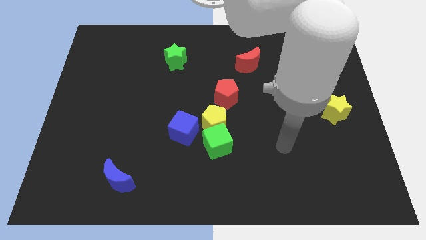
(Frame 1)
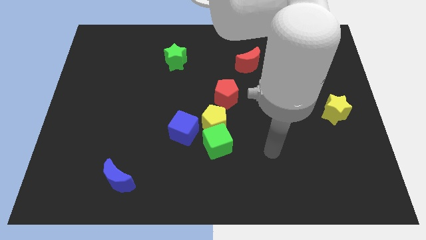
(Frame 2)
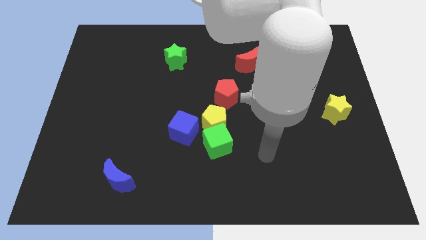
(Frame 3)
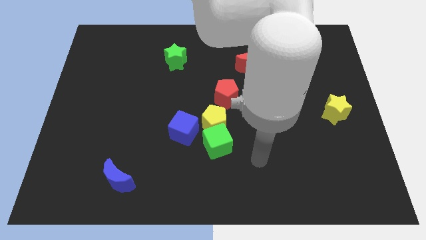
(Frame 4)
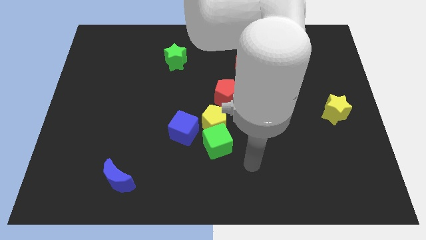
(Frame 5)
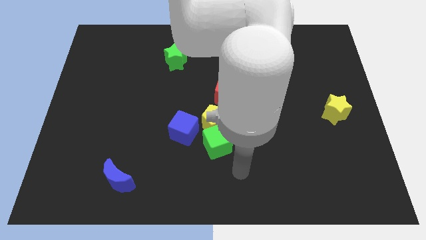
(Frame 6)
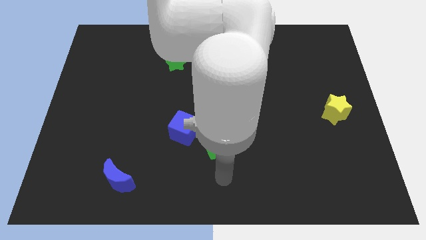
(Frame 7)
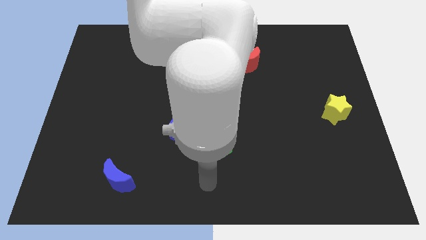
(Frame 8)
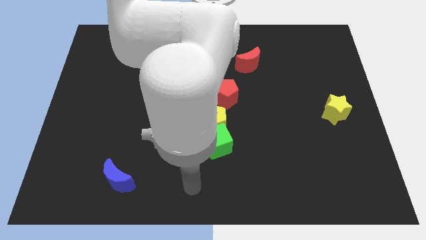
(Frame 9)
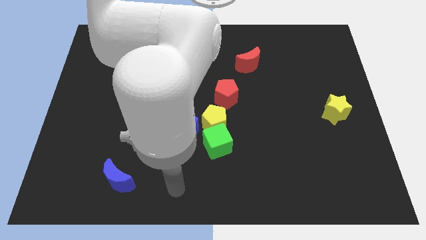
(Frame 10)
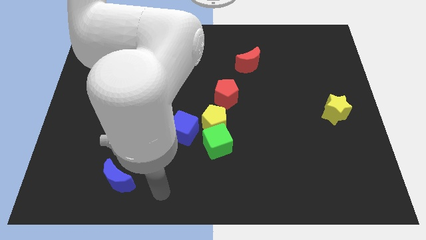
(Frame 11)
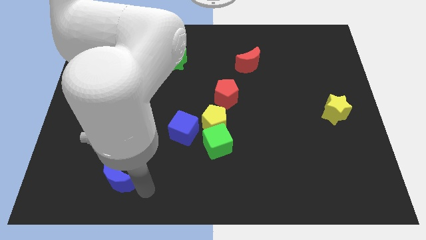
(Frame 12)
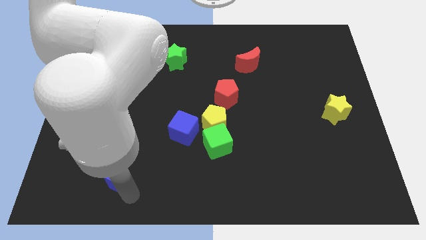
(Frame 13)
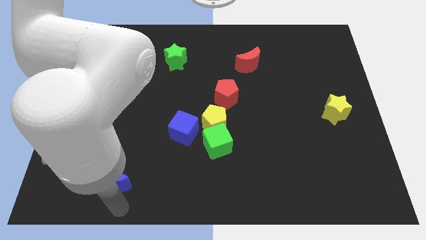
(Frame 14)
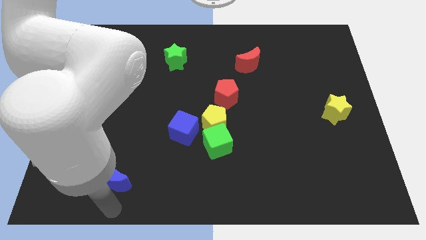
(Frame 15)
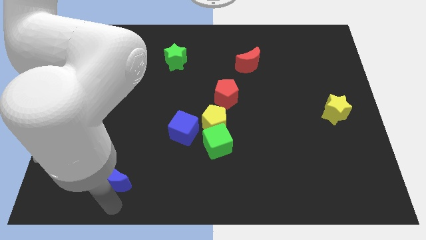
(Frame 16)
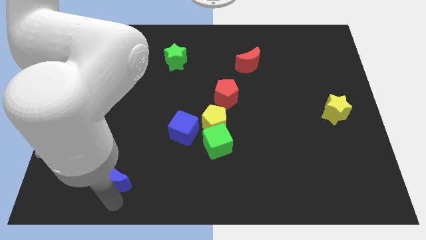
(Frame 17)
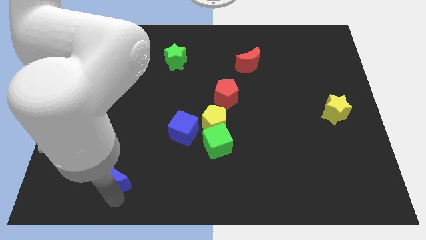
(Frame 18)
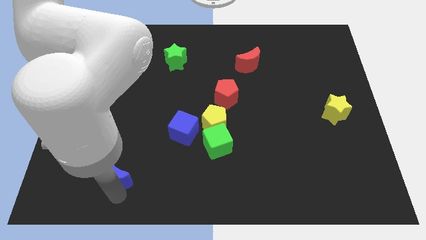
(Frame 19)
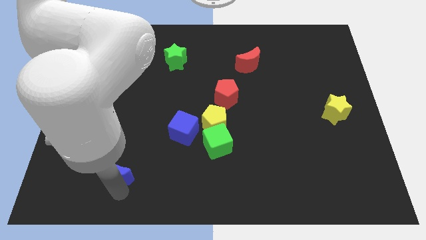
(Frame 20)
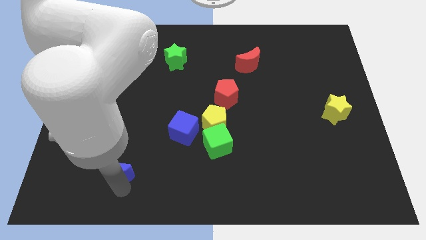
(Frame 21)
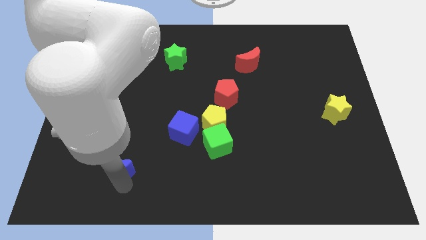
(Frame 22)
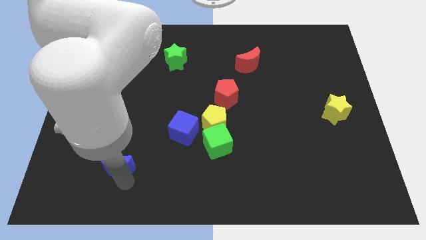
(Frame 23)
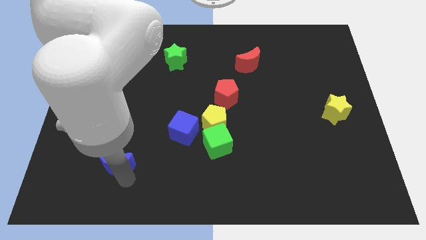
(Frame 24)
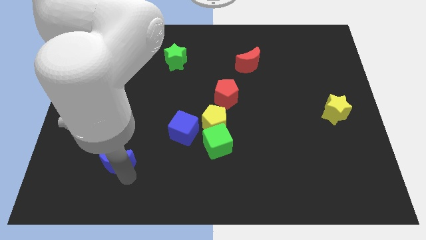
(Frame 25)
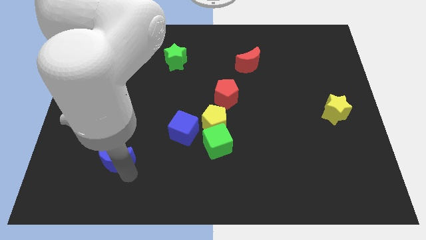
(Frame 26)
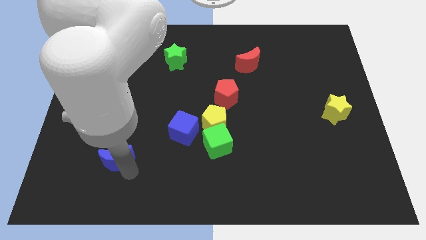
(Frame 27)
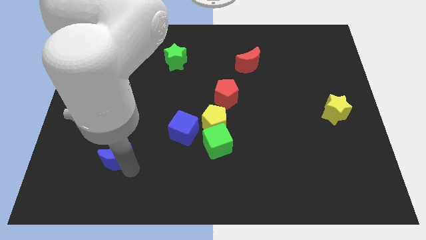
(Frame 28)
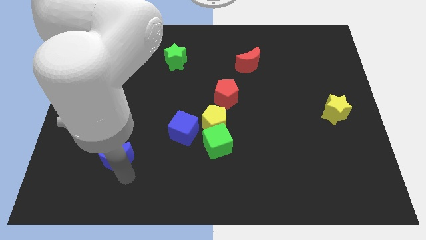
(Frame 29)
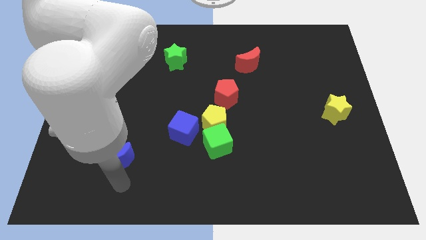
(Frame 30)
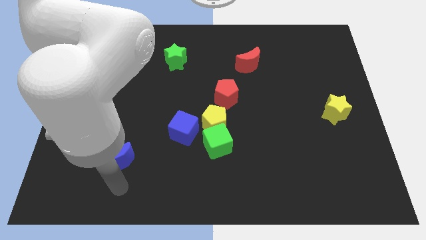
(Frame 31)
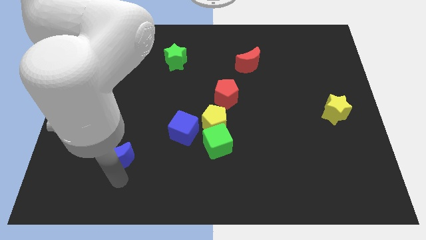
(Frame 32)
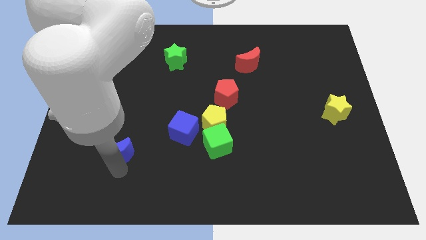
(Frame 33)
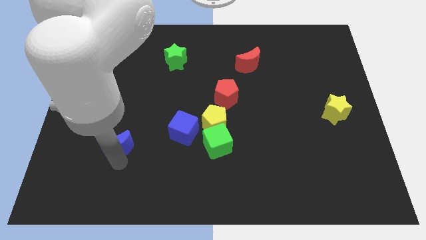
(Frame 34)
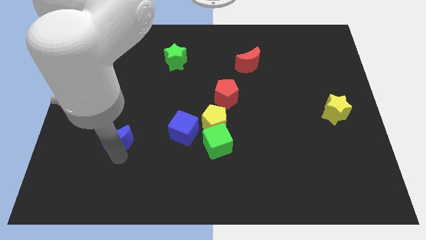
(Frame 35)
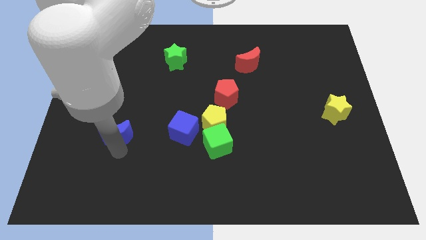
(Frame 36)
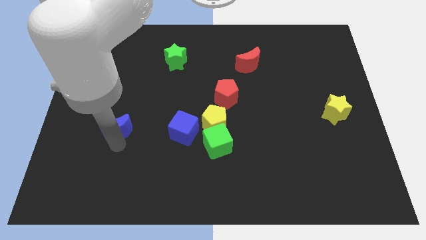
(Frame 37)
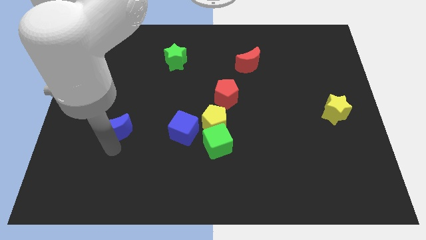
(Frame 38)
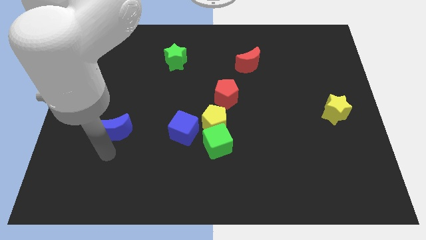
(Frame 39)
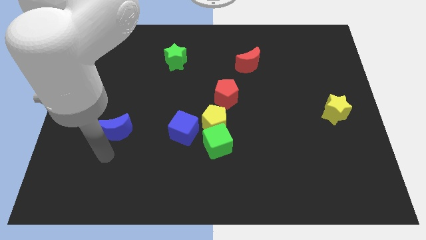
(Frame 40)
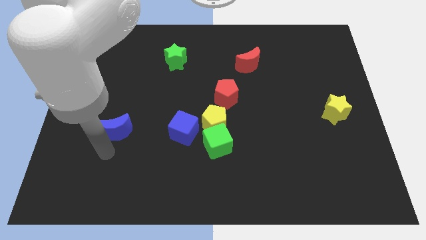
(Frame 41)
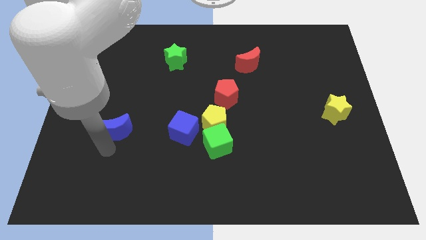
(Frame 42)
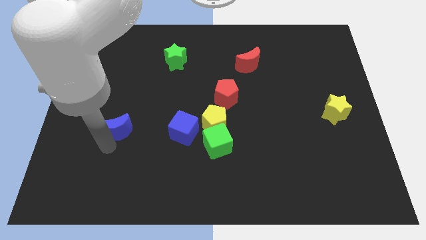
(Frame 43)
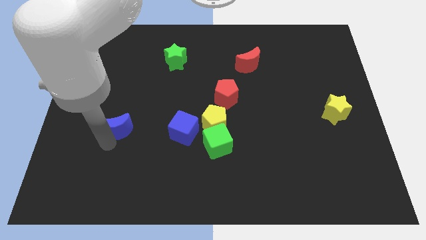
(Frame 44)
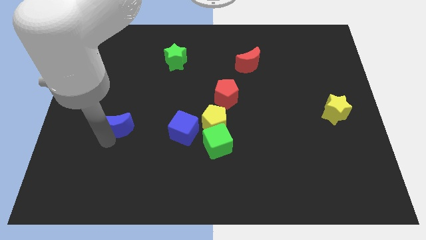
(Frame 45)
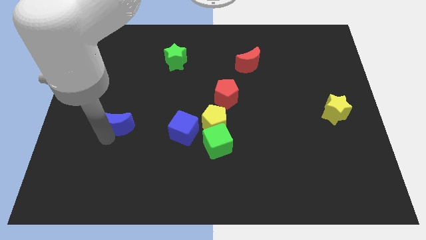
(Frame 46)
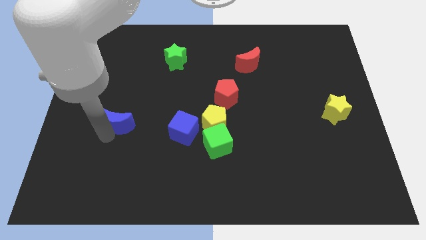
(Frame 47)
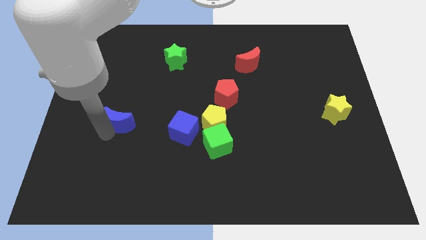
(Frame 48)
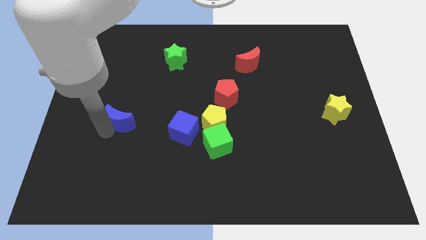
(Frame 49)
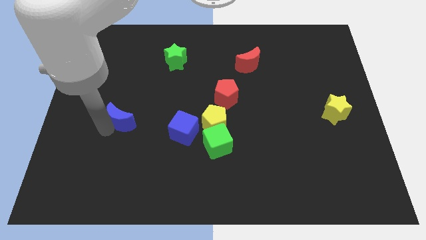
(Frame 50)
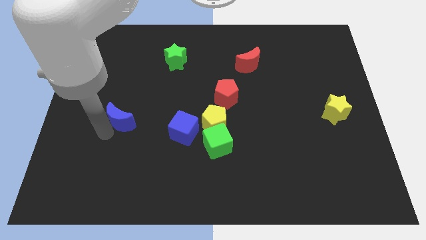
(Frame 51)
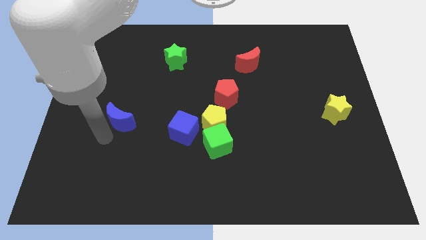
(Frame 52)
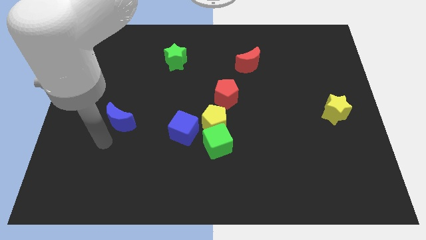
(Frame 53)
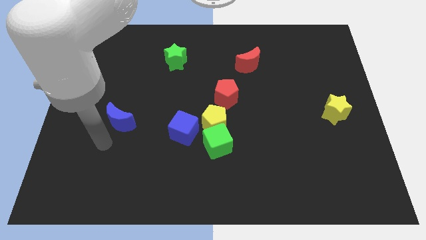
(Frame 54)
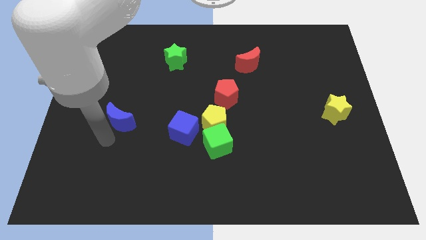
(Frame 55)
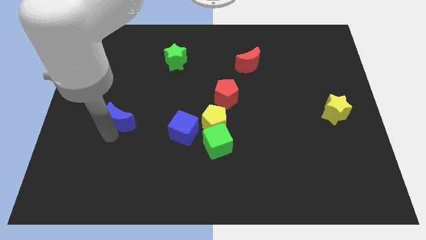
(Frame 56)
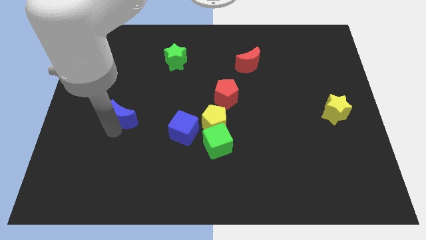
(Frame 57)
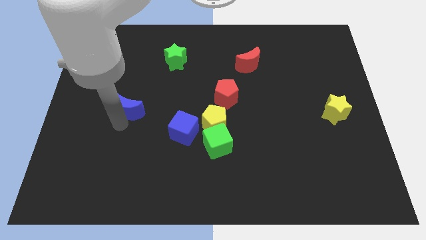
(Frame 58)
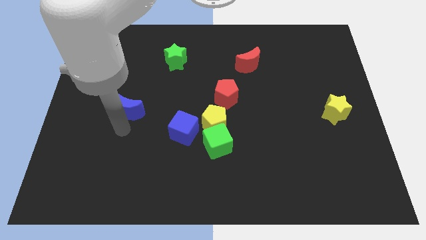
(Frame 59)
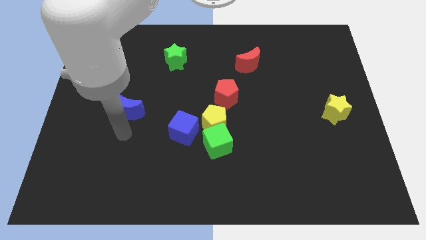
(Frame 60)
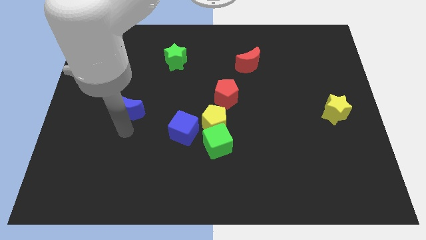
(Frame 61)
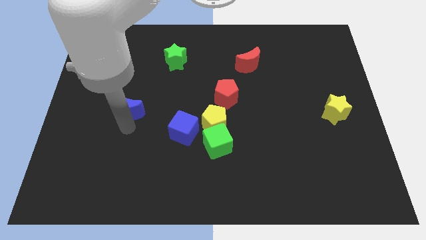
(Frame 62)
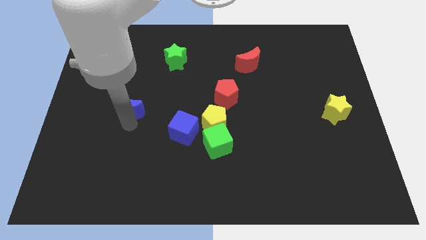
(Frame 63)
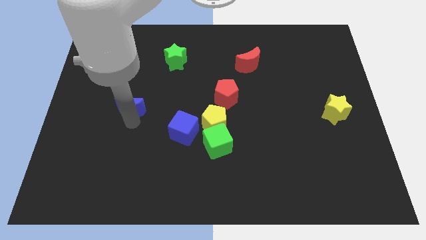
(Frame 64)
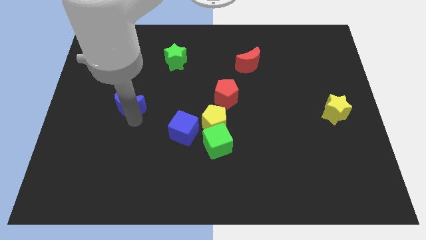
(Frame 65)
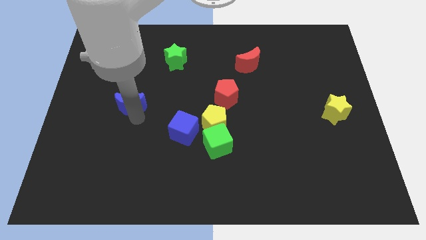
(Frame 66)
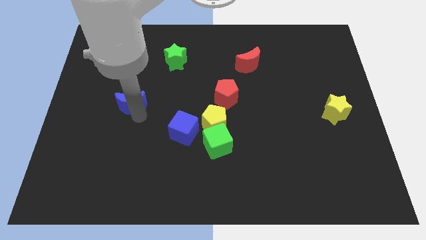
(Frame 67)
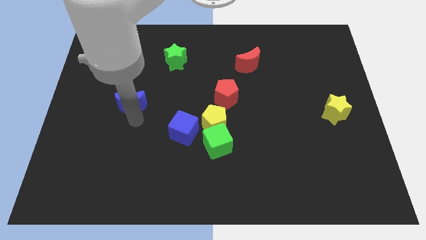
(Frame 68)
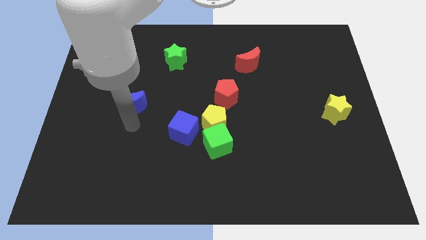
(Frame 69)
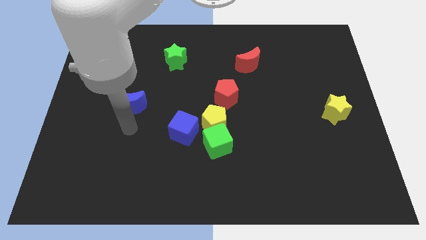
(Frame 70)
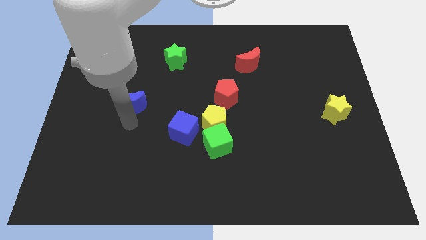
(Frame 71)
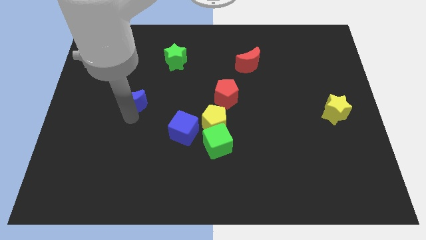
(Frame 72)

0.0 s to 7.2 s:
push the blue moon up

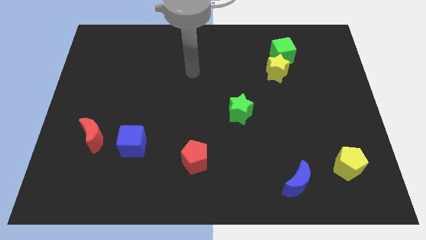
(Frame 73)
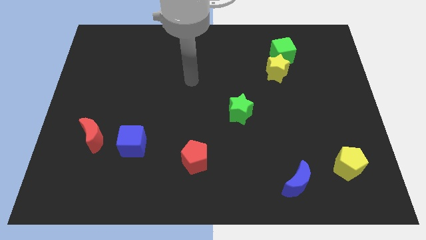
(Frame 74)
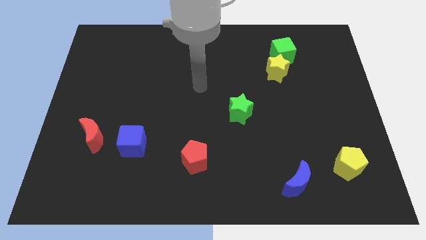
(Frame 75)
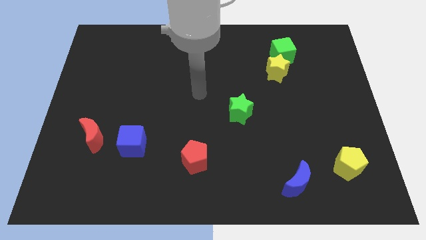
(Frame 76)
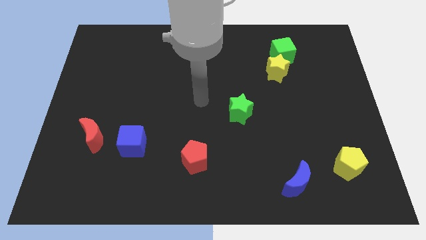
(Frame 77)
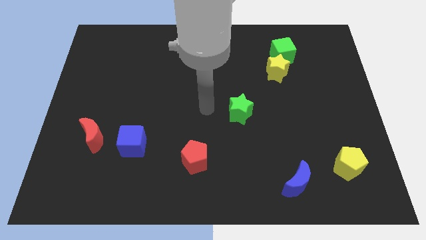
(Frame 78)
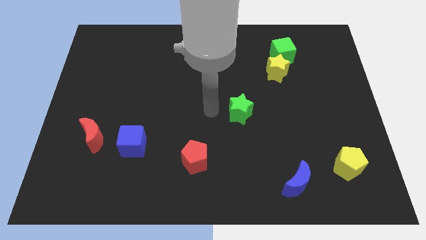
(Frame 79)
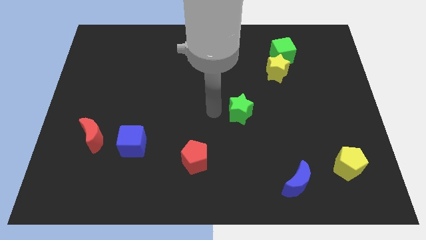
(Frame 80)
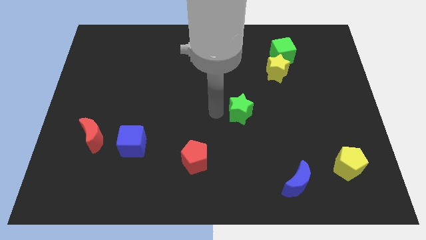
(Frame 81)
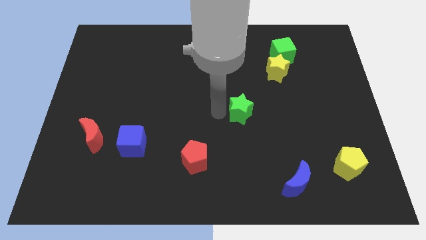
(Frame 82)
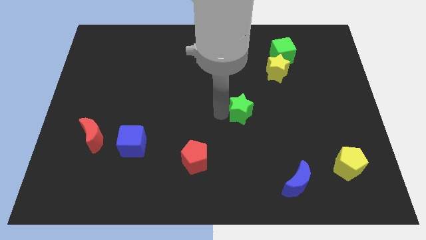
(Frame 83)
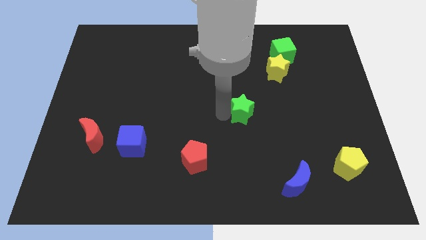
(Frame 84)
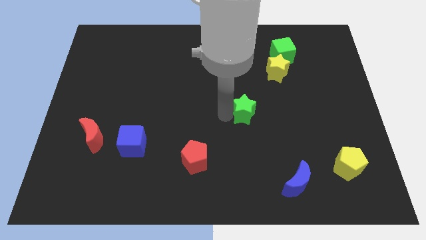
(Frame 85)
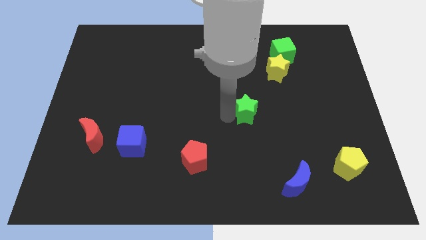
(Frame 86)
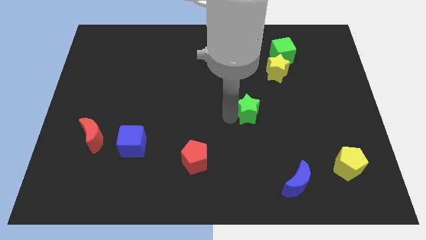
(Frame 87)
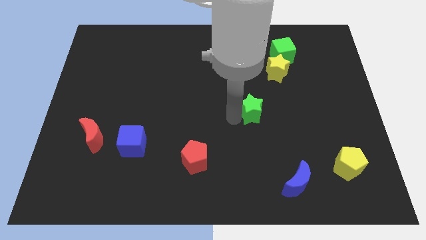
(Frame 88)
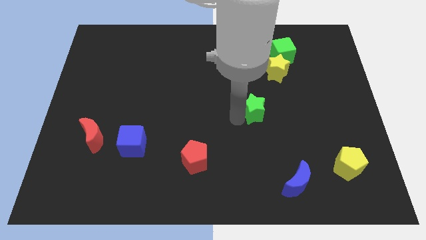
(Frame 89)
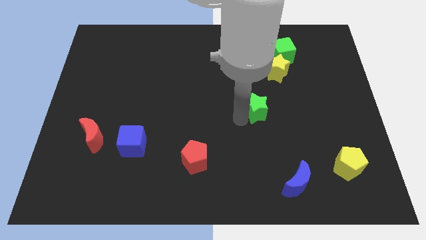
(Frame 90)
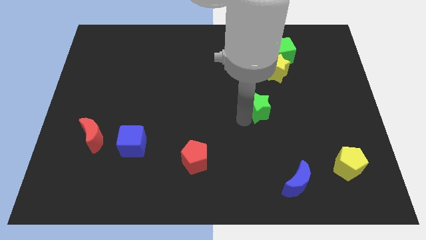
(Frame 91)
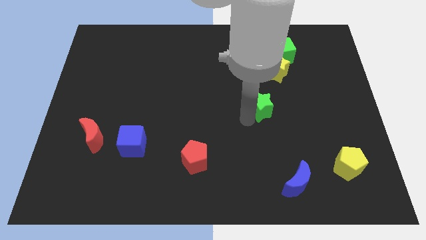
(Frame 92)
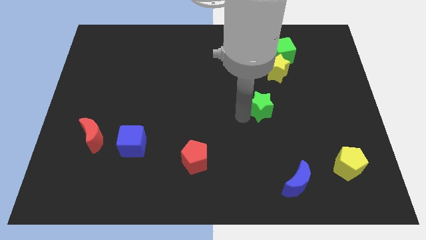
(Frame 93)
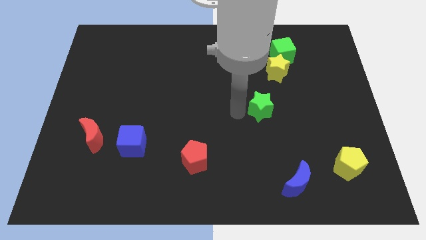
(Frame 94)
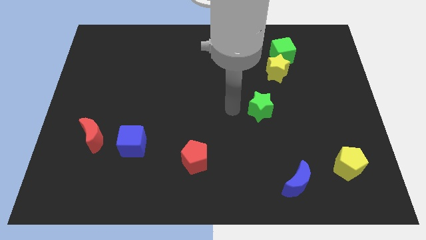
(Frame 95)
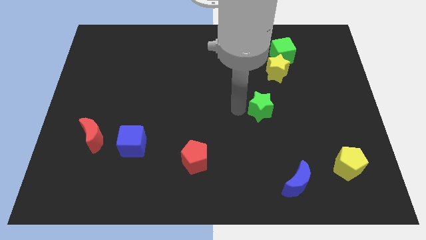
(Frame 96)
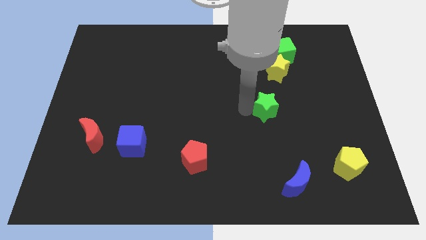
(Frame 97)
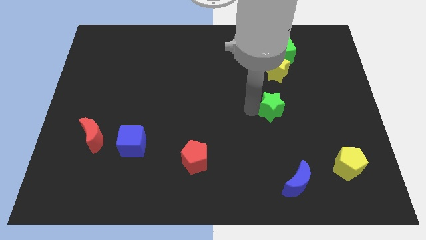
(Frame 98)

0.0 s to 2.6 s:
push the green star a little bit to the right
